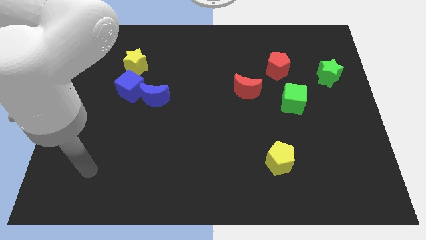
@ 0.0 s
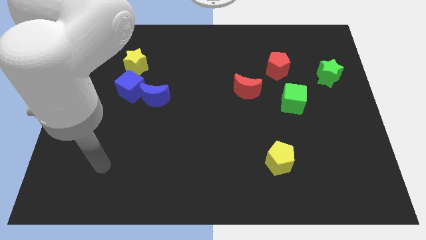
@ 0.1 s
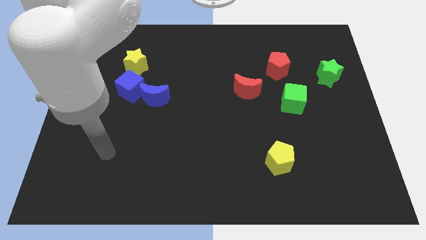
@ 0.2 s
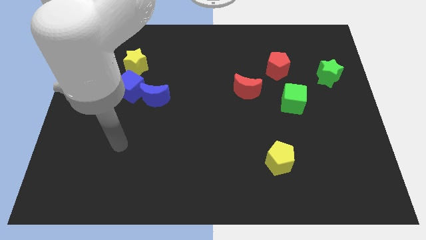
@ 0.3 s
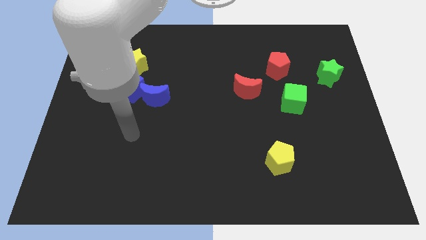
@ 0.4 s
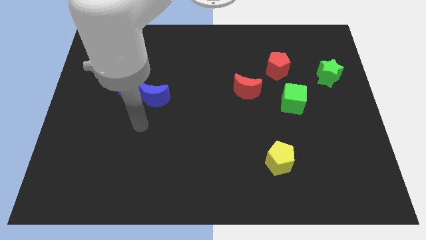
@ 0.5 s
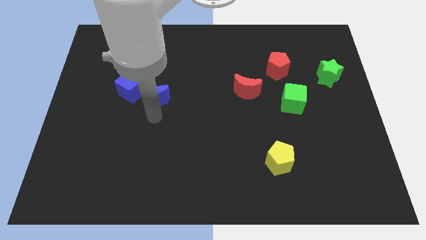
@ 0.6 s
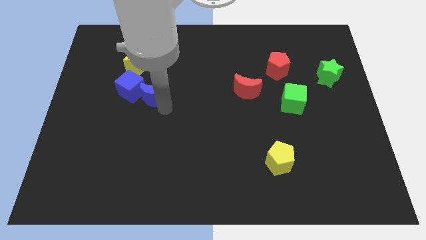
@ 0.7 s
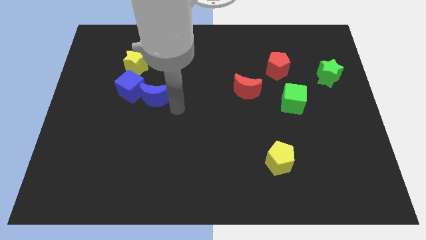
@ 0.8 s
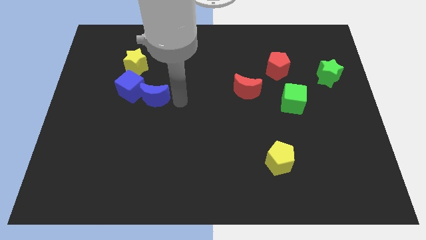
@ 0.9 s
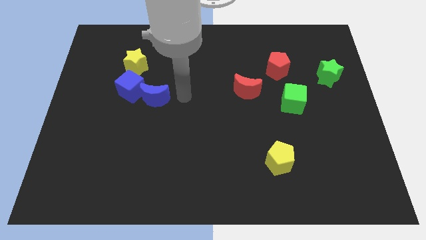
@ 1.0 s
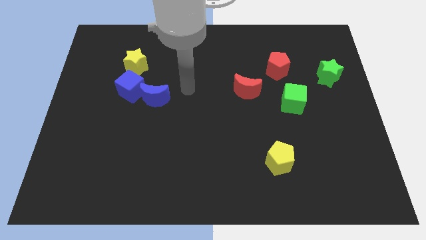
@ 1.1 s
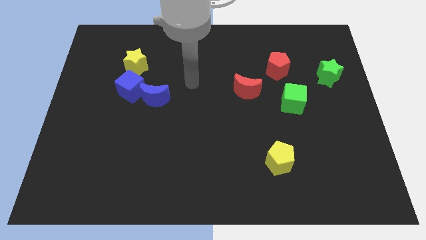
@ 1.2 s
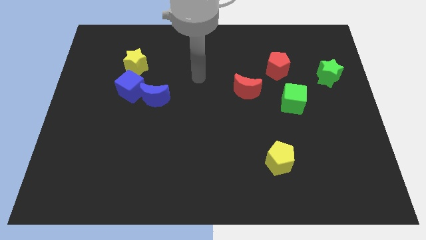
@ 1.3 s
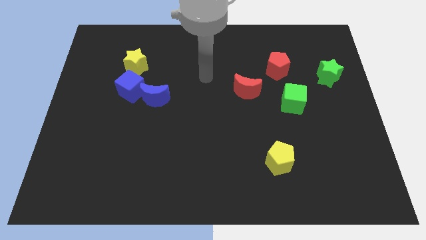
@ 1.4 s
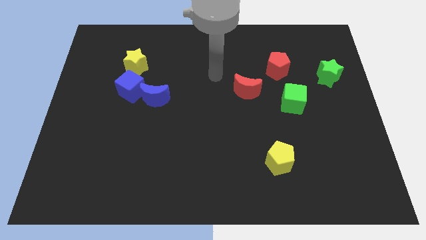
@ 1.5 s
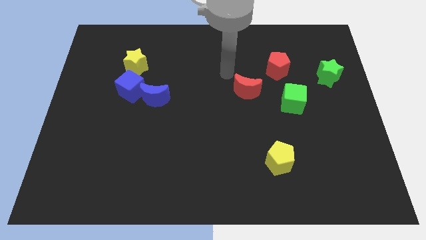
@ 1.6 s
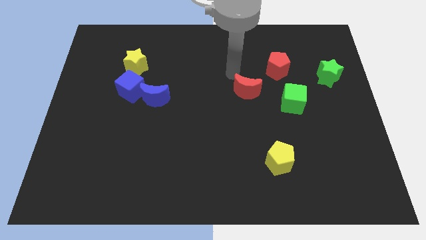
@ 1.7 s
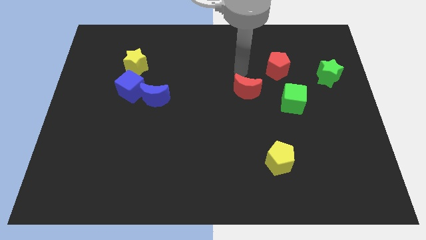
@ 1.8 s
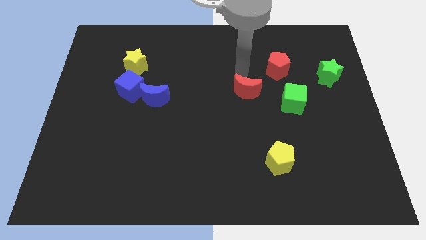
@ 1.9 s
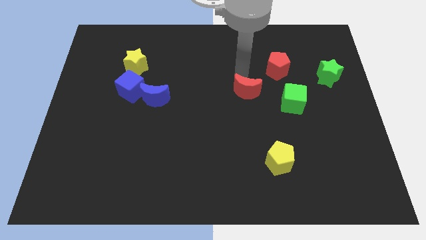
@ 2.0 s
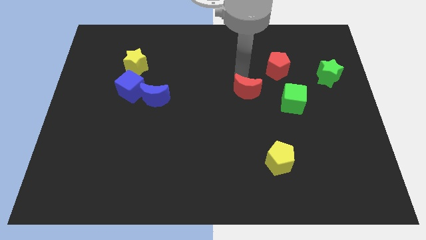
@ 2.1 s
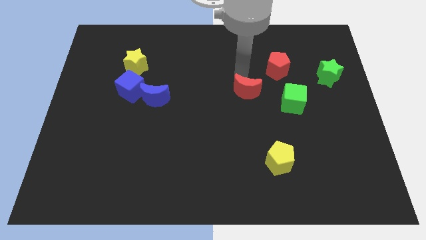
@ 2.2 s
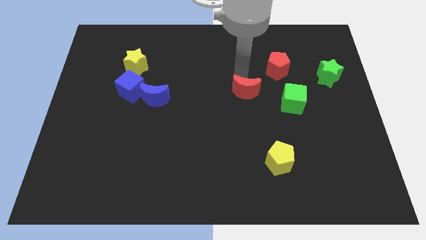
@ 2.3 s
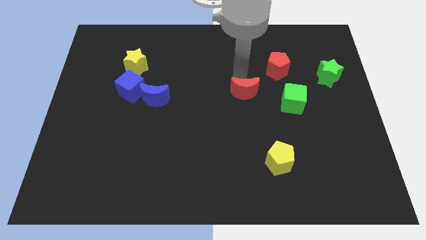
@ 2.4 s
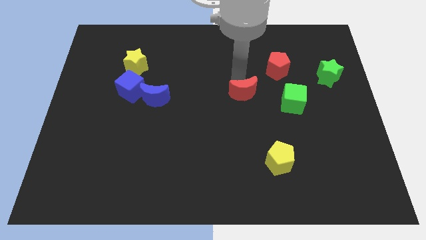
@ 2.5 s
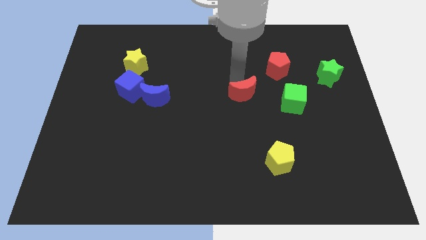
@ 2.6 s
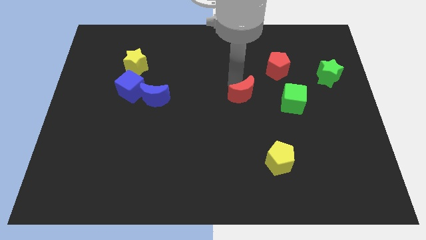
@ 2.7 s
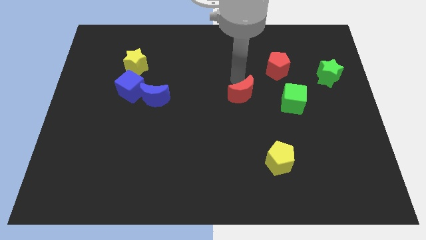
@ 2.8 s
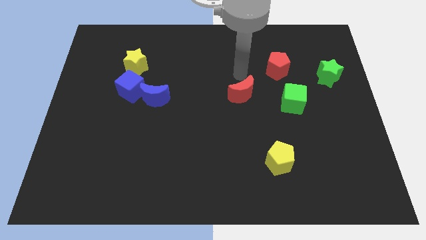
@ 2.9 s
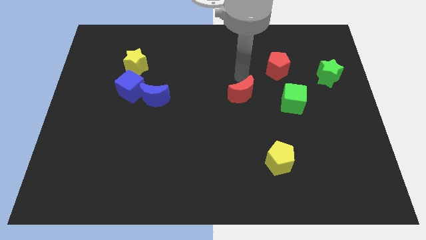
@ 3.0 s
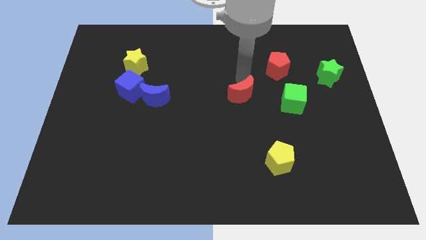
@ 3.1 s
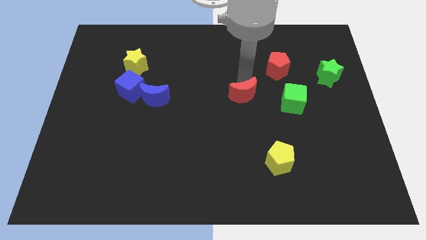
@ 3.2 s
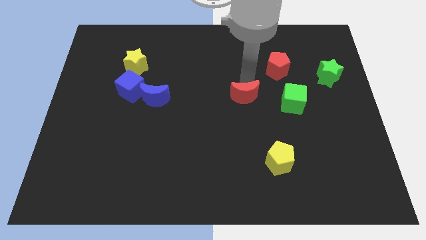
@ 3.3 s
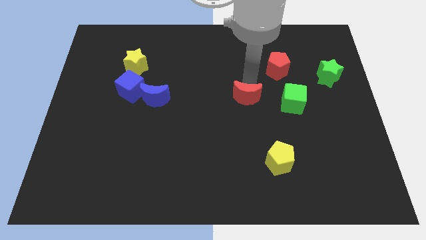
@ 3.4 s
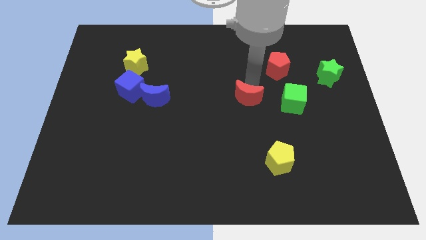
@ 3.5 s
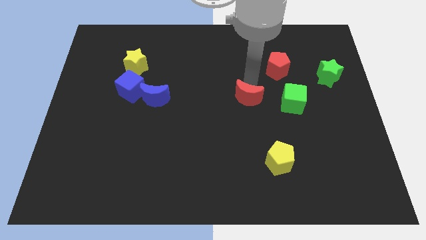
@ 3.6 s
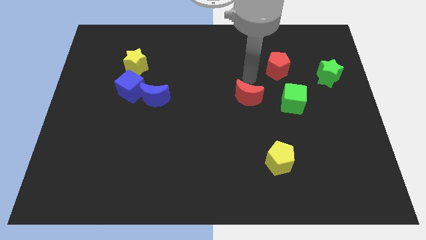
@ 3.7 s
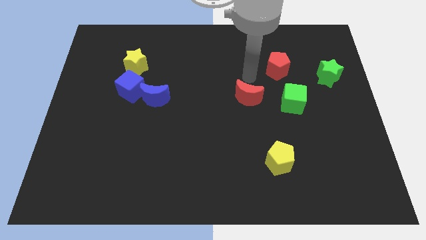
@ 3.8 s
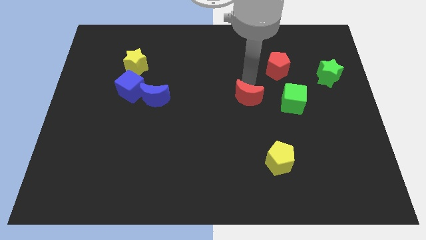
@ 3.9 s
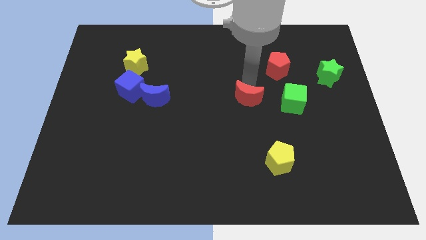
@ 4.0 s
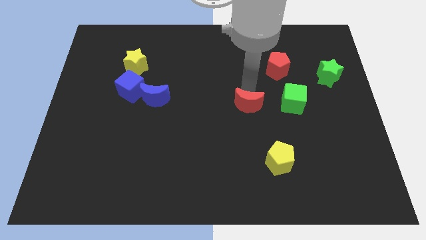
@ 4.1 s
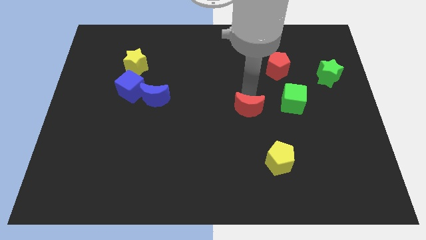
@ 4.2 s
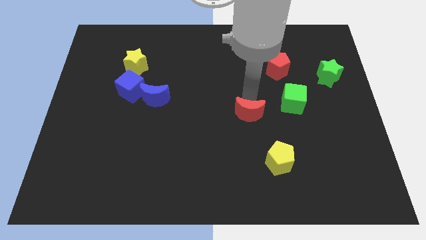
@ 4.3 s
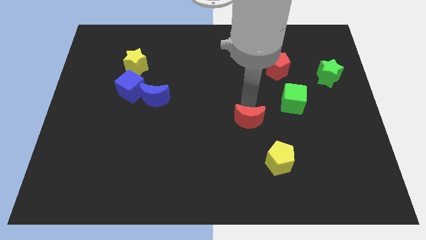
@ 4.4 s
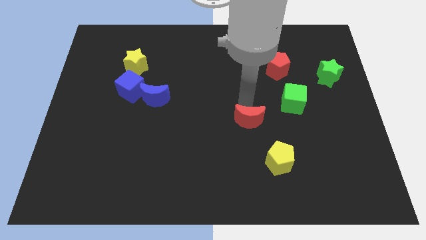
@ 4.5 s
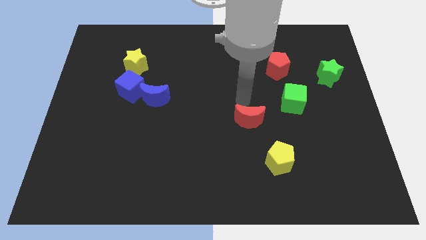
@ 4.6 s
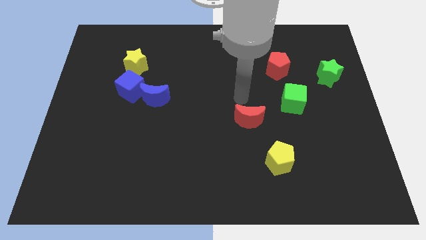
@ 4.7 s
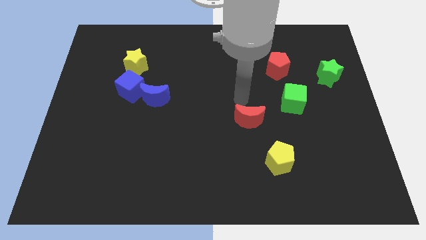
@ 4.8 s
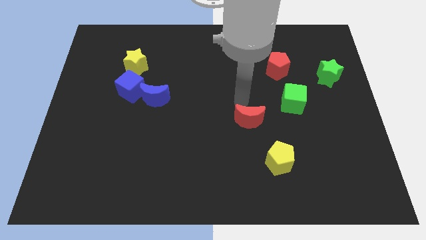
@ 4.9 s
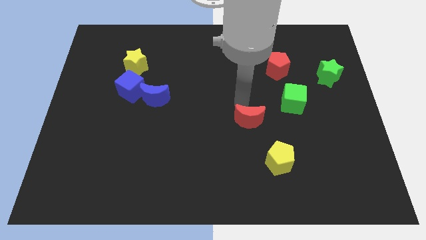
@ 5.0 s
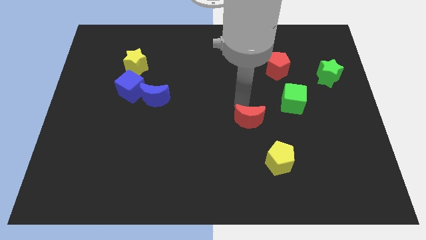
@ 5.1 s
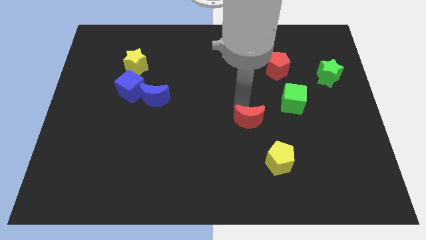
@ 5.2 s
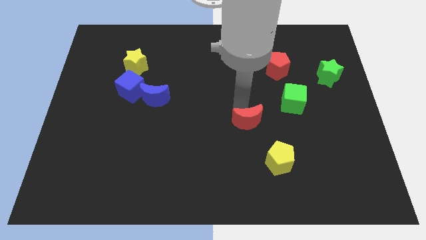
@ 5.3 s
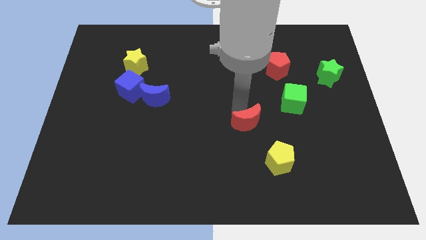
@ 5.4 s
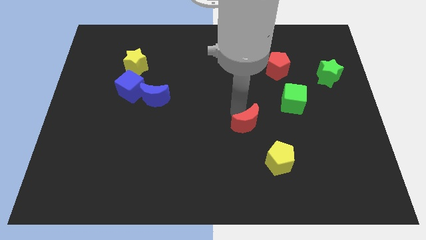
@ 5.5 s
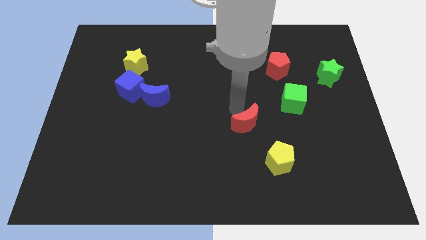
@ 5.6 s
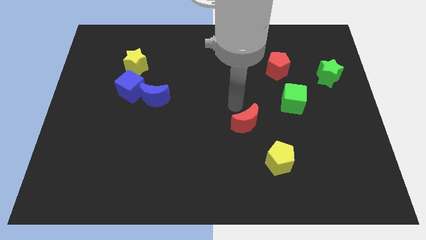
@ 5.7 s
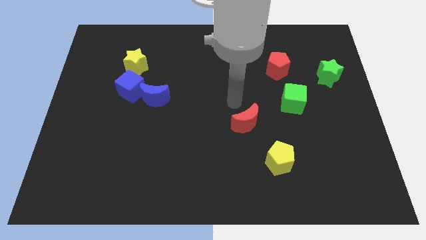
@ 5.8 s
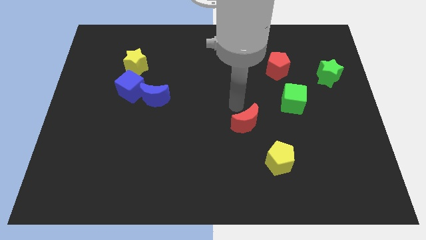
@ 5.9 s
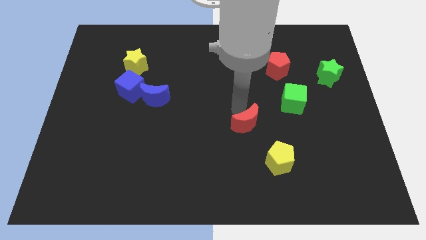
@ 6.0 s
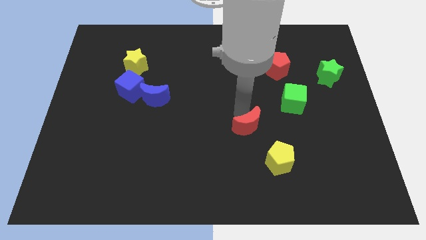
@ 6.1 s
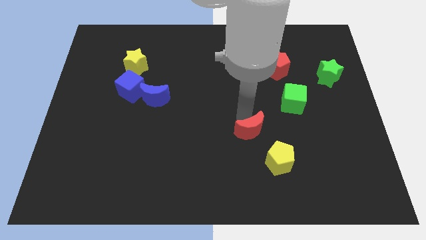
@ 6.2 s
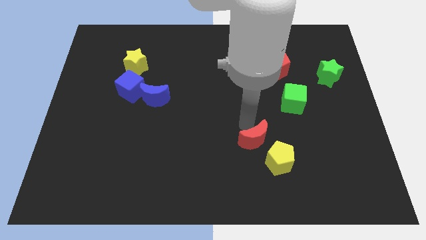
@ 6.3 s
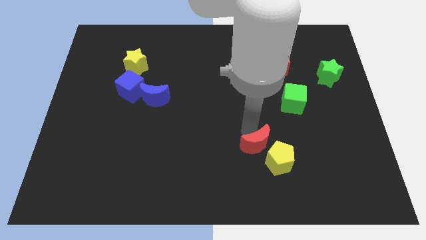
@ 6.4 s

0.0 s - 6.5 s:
move the red moon close to the yellow pentagon
